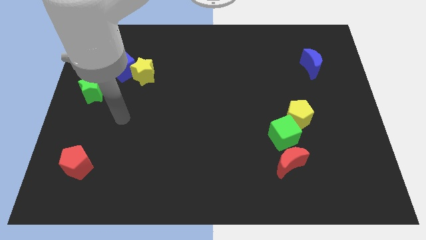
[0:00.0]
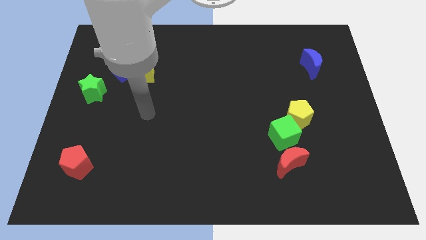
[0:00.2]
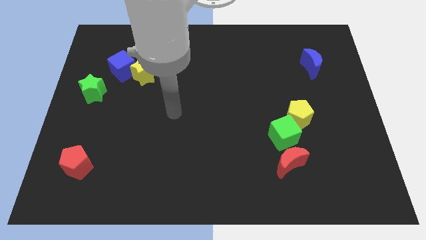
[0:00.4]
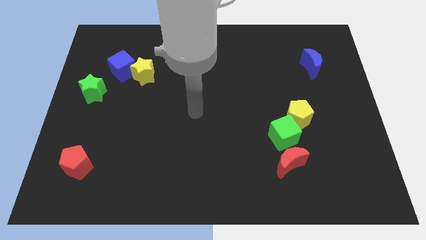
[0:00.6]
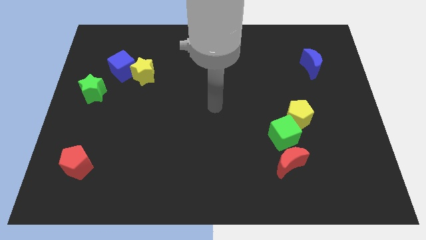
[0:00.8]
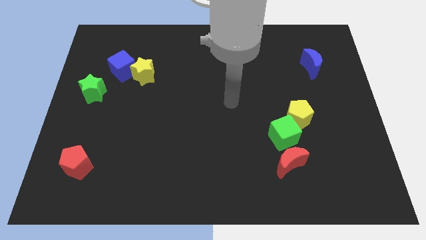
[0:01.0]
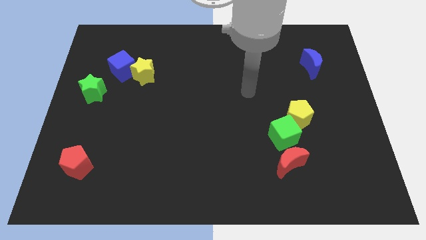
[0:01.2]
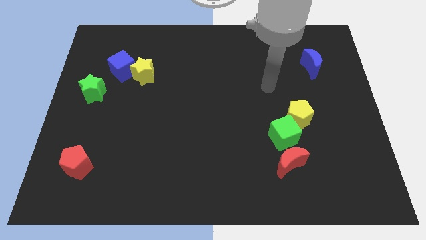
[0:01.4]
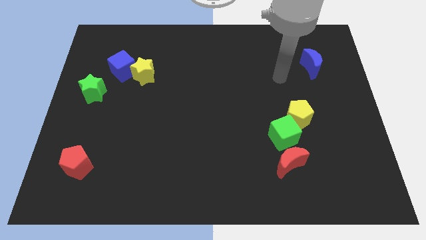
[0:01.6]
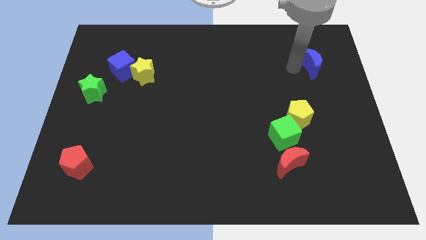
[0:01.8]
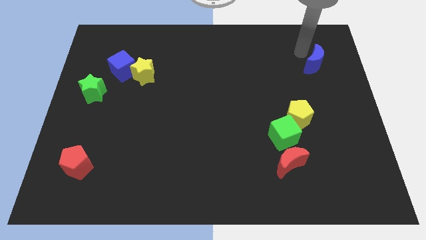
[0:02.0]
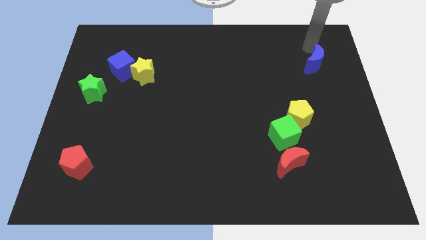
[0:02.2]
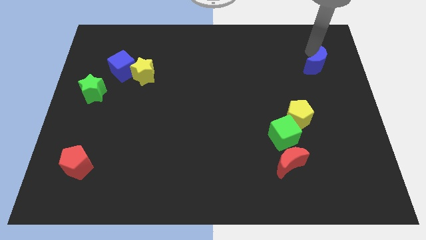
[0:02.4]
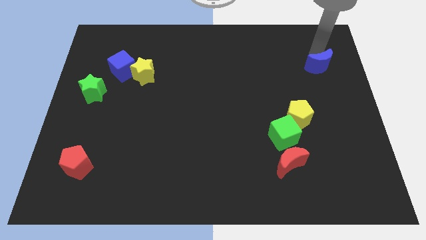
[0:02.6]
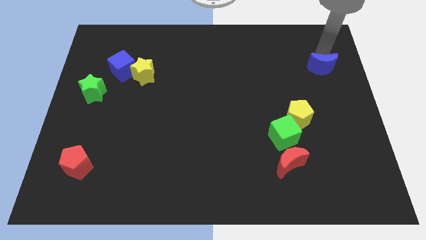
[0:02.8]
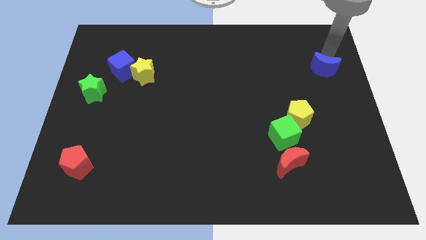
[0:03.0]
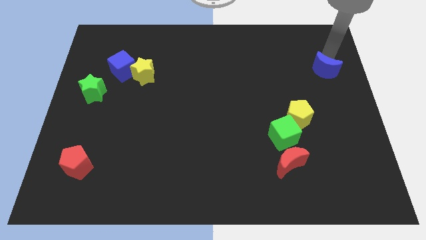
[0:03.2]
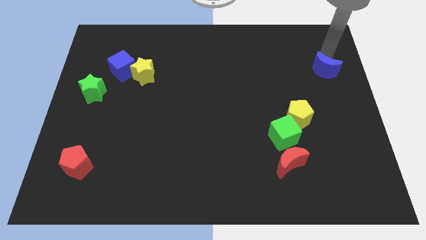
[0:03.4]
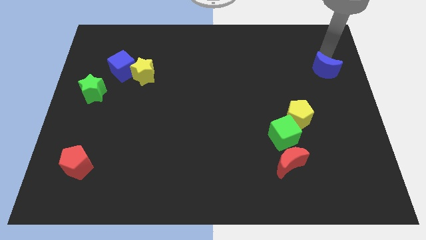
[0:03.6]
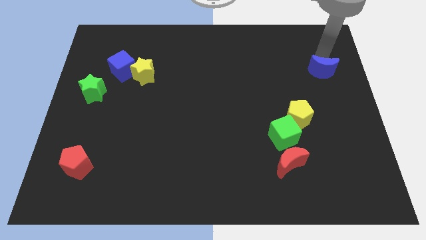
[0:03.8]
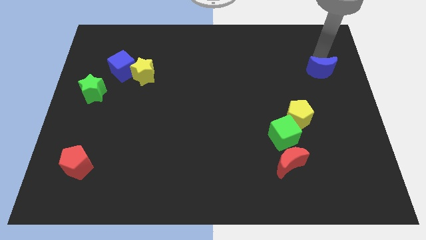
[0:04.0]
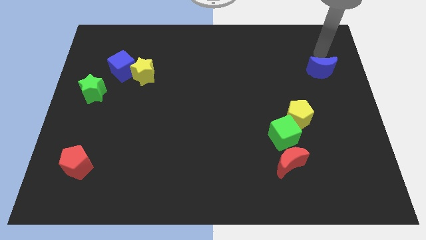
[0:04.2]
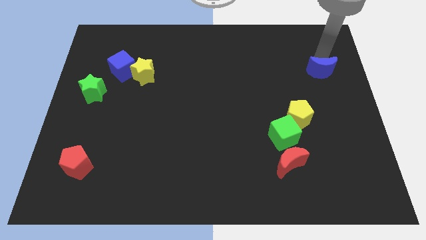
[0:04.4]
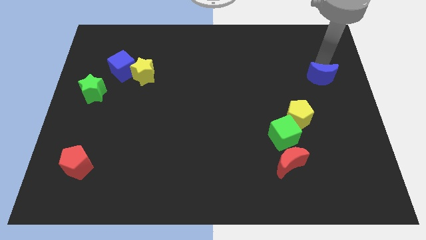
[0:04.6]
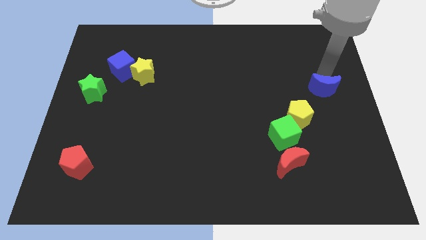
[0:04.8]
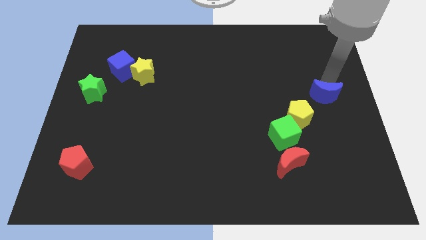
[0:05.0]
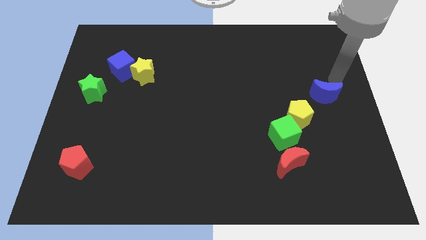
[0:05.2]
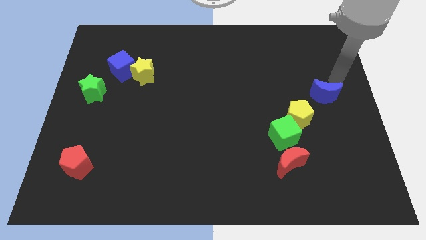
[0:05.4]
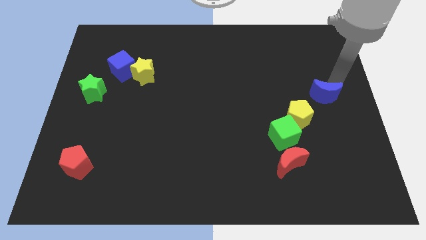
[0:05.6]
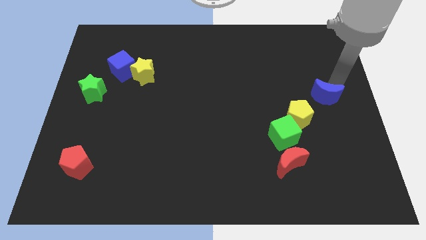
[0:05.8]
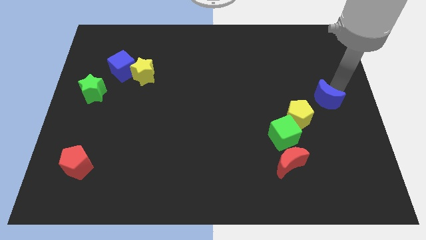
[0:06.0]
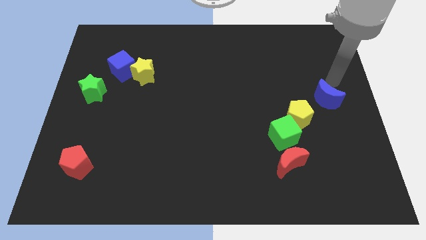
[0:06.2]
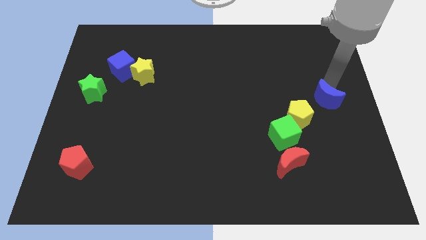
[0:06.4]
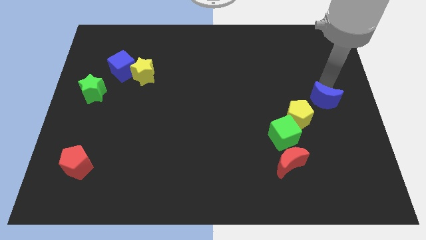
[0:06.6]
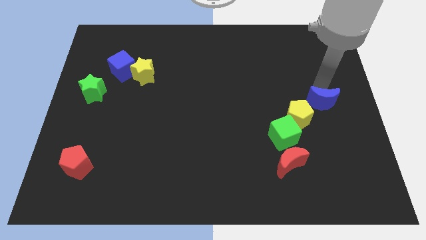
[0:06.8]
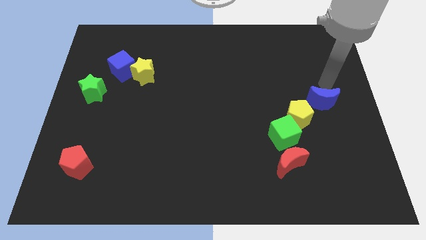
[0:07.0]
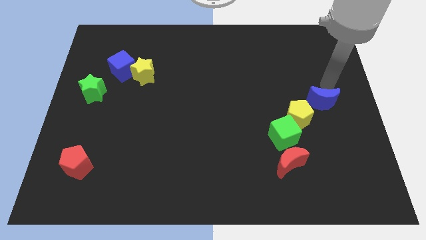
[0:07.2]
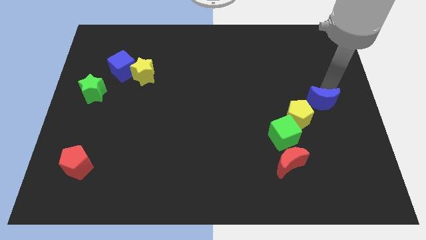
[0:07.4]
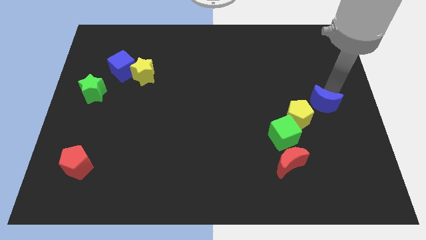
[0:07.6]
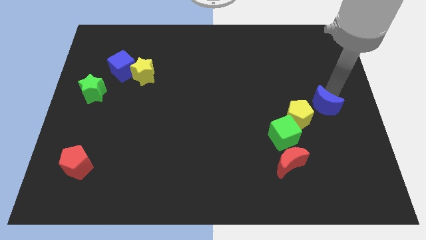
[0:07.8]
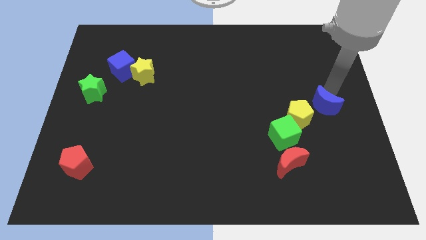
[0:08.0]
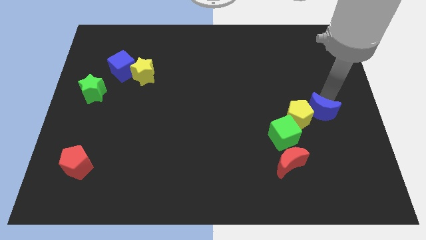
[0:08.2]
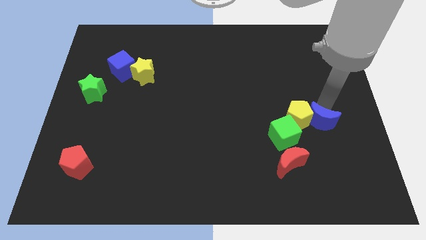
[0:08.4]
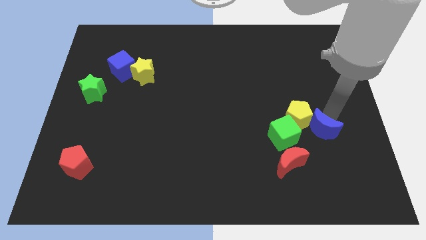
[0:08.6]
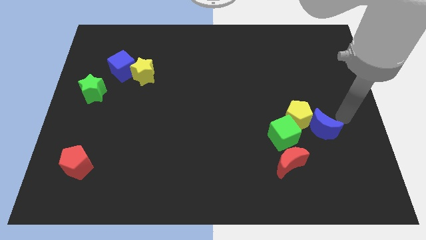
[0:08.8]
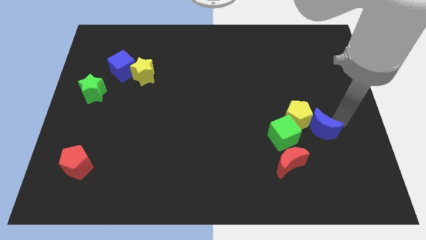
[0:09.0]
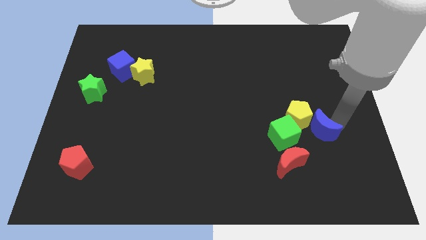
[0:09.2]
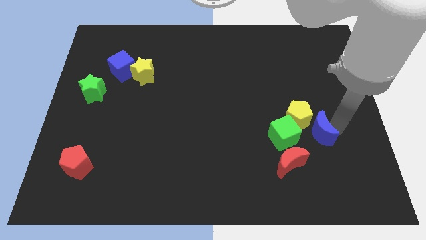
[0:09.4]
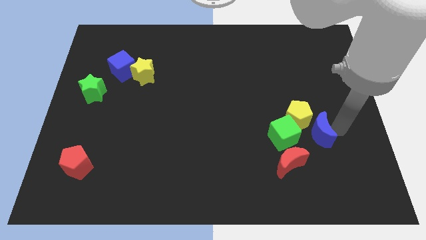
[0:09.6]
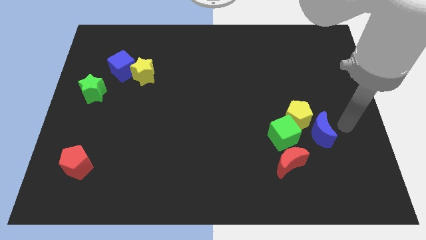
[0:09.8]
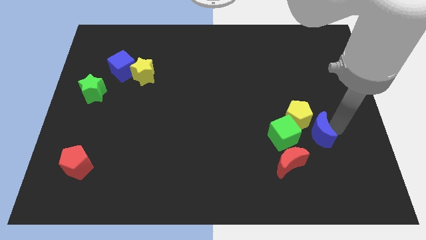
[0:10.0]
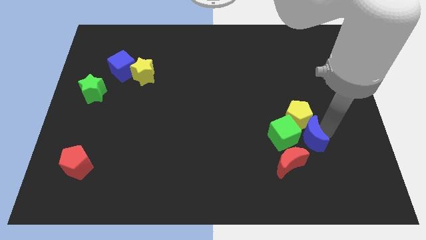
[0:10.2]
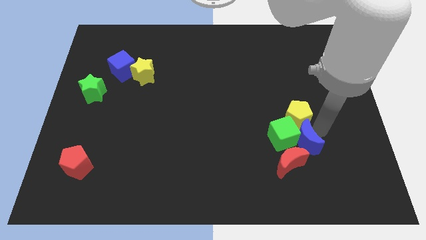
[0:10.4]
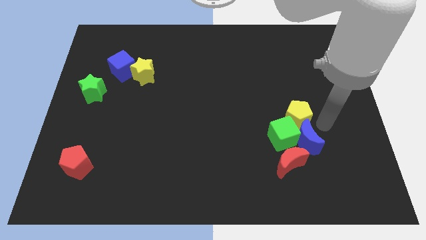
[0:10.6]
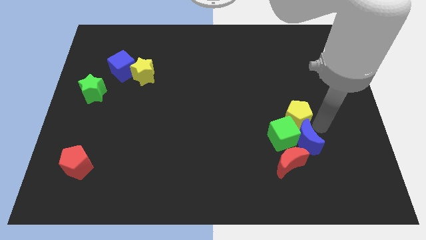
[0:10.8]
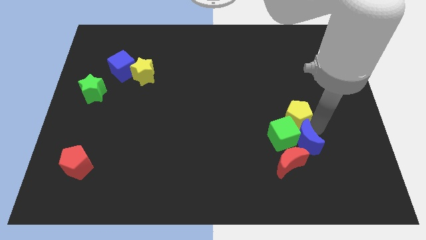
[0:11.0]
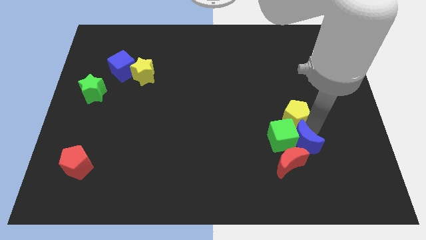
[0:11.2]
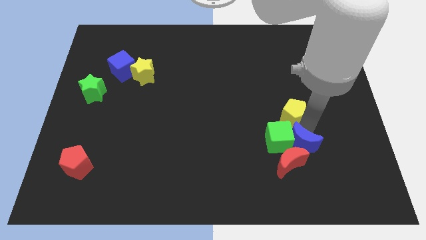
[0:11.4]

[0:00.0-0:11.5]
push the blue moon next to the red moon

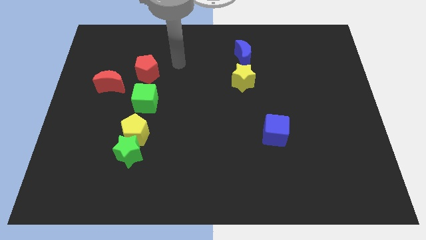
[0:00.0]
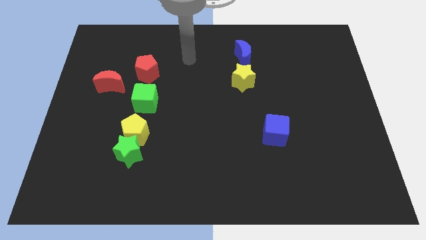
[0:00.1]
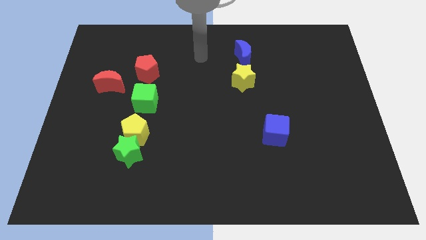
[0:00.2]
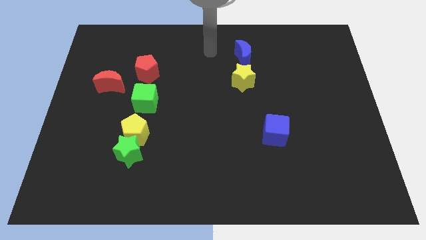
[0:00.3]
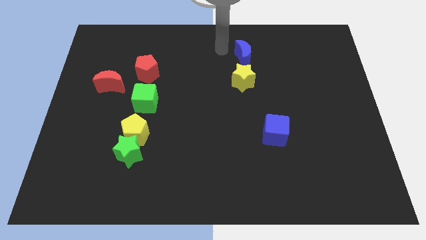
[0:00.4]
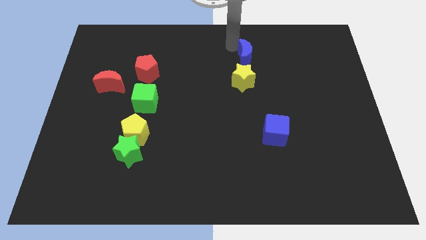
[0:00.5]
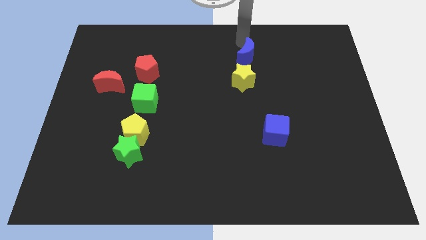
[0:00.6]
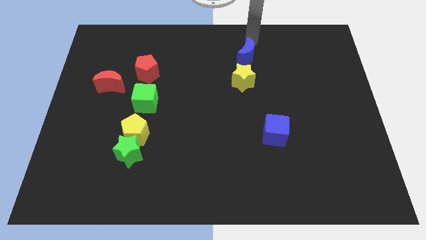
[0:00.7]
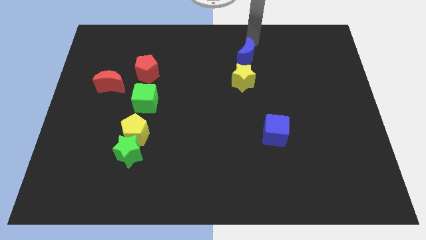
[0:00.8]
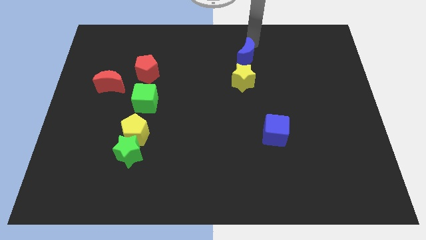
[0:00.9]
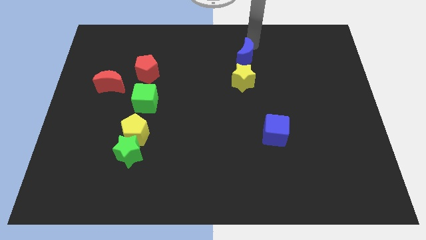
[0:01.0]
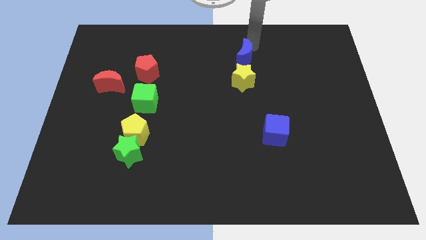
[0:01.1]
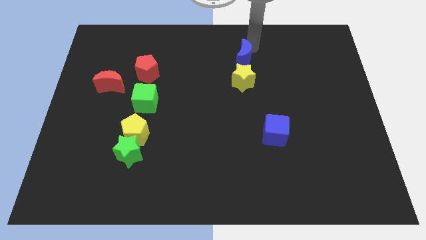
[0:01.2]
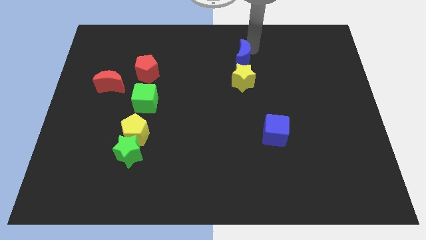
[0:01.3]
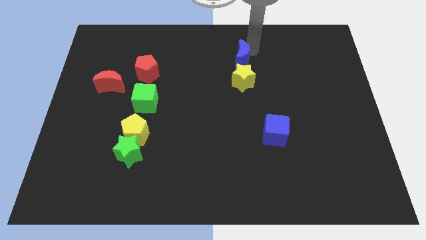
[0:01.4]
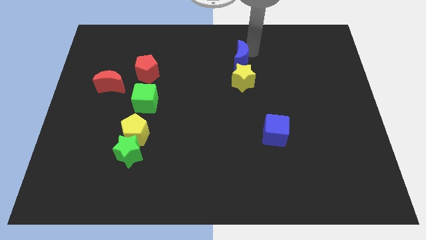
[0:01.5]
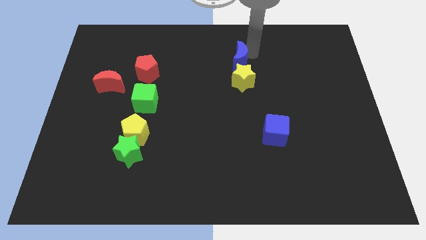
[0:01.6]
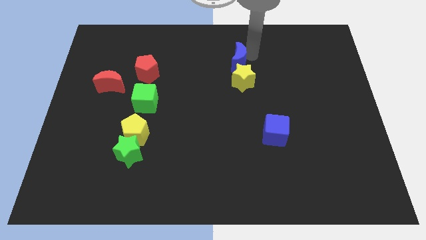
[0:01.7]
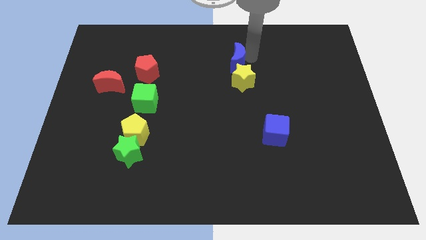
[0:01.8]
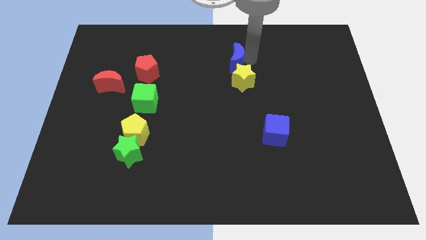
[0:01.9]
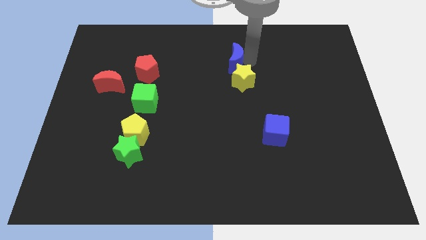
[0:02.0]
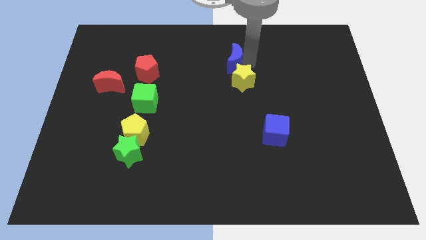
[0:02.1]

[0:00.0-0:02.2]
put the blue moon close to the yellow star
